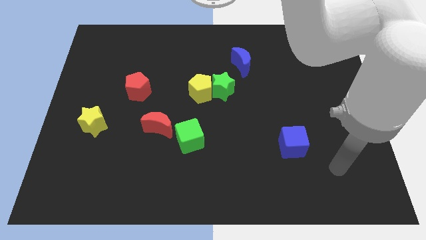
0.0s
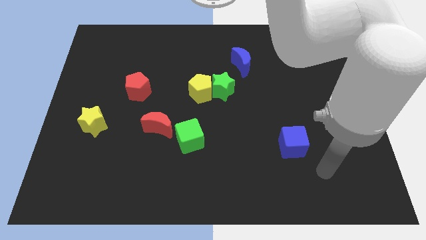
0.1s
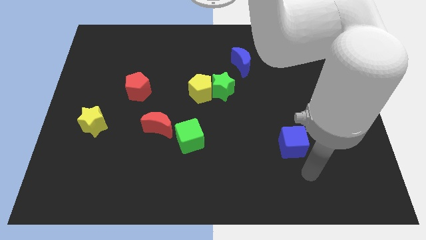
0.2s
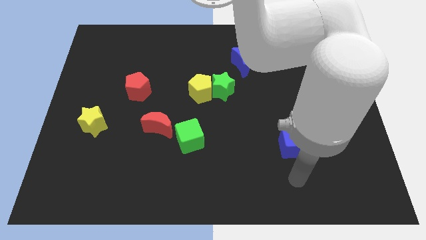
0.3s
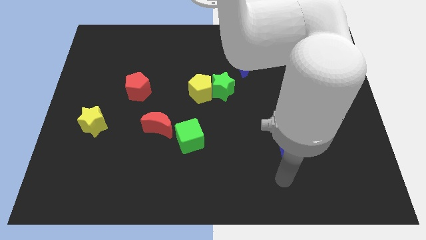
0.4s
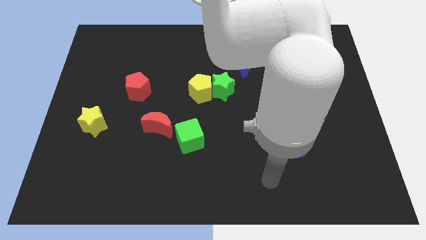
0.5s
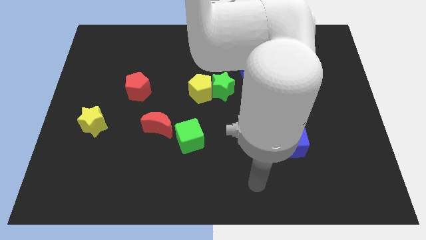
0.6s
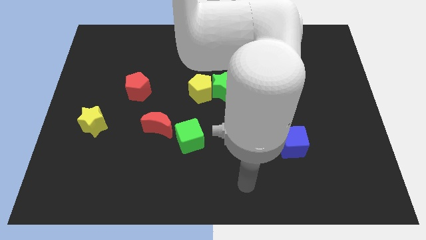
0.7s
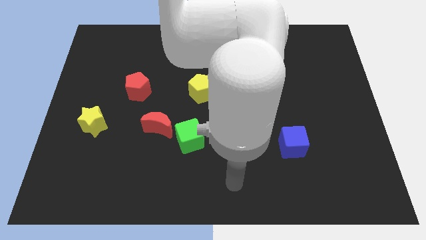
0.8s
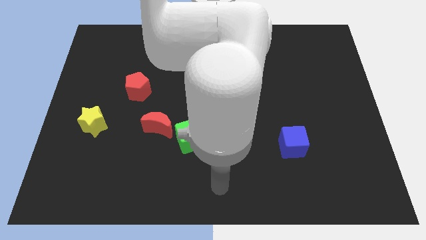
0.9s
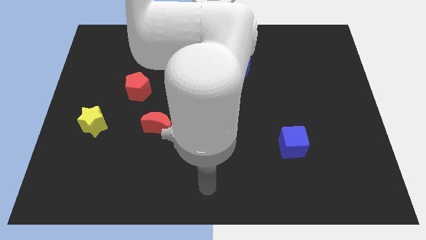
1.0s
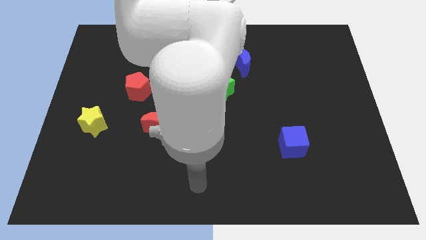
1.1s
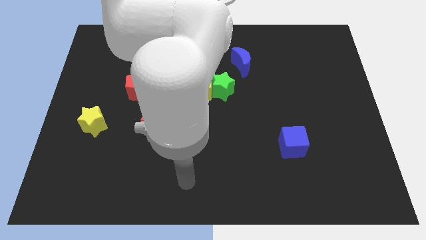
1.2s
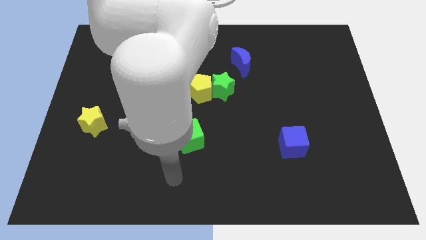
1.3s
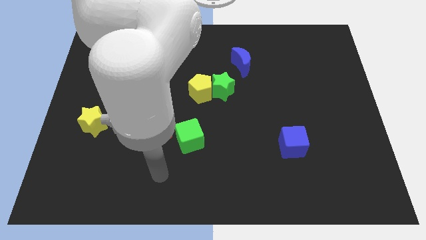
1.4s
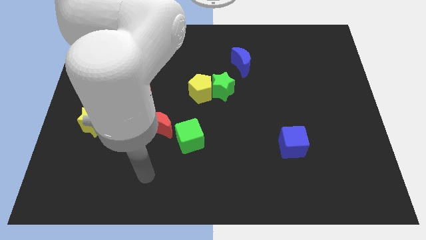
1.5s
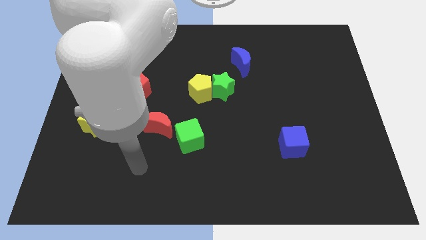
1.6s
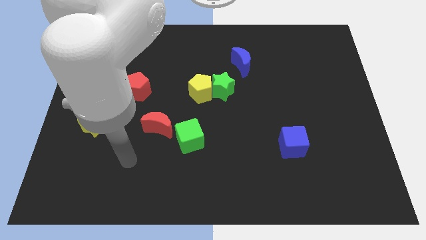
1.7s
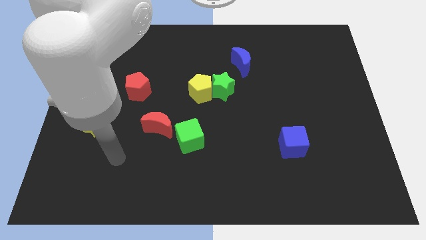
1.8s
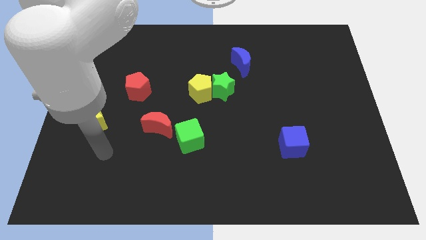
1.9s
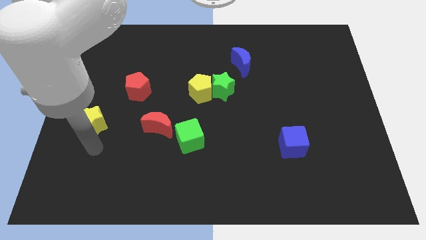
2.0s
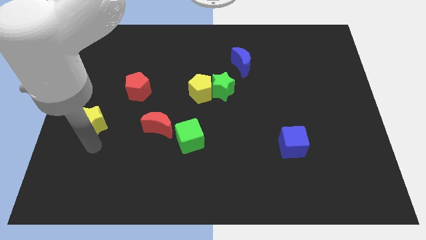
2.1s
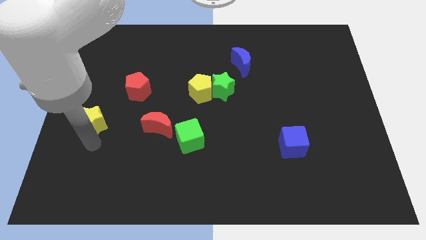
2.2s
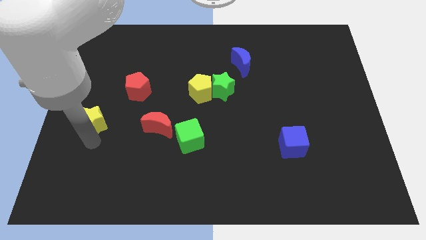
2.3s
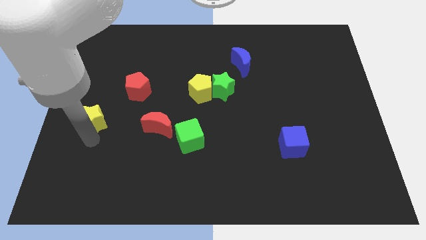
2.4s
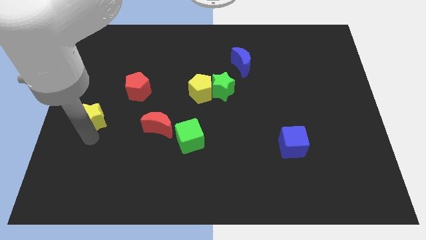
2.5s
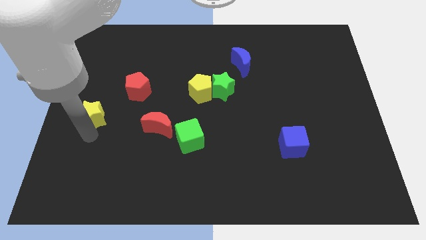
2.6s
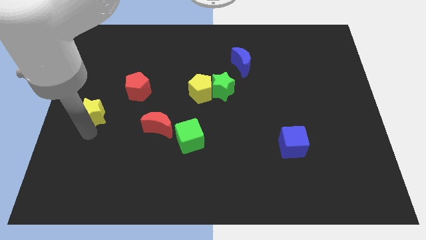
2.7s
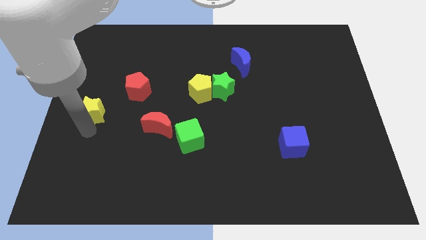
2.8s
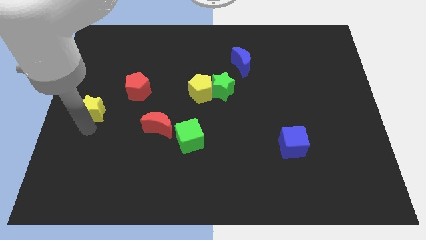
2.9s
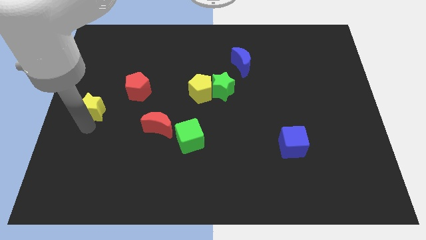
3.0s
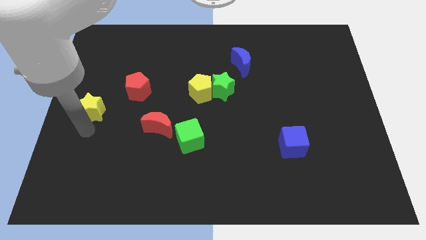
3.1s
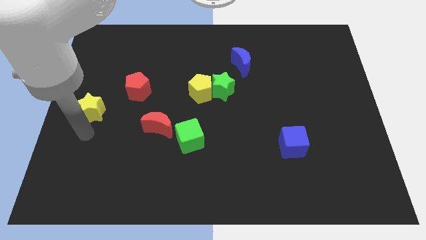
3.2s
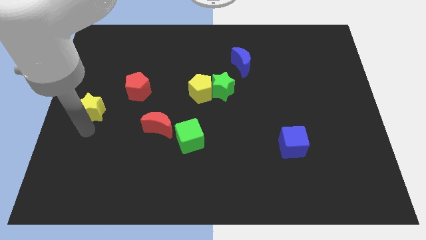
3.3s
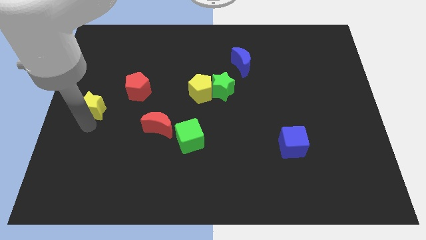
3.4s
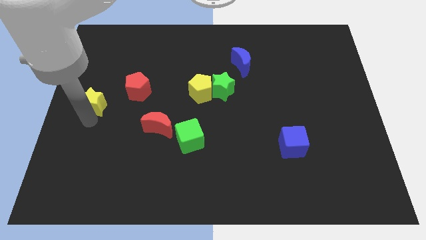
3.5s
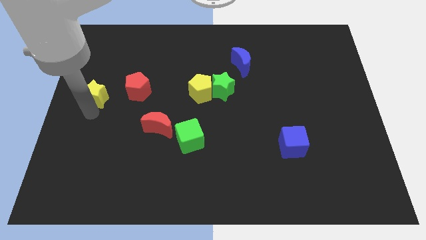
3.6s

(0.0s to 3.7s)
move the yellow star up somewhat

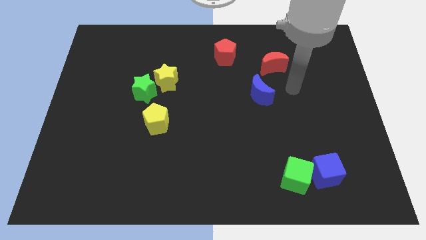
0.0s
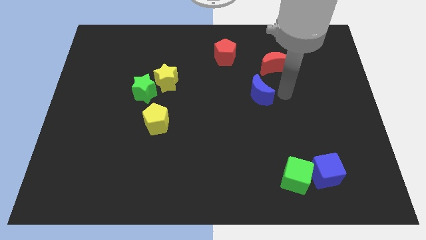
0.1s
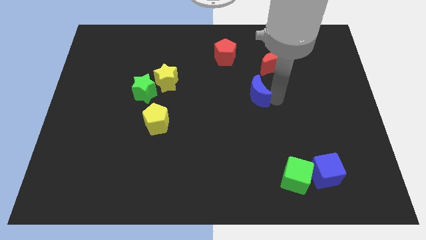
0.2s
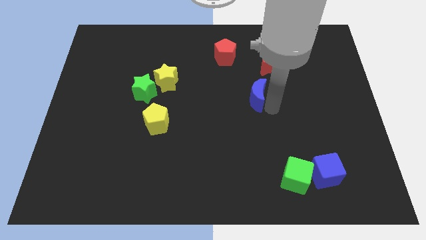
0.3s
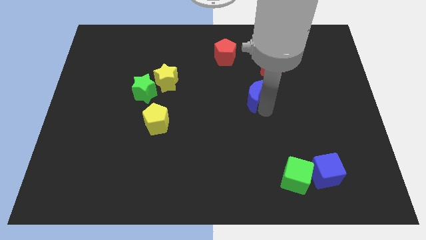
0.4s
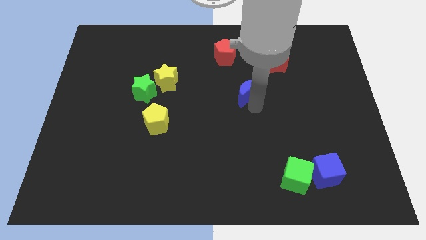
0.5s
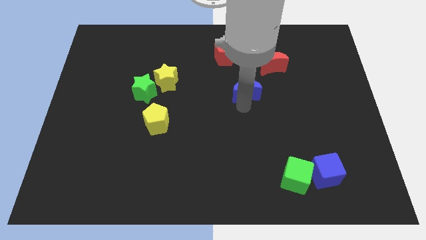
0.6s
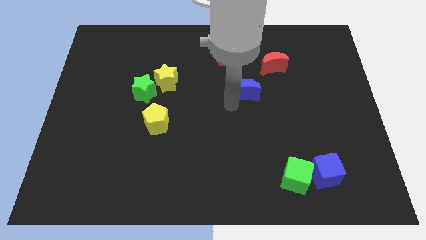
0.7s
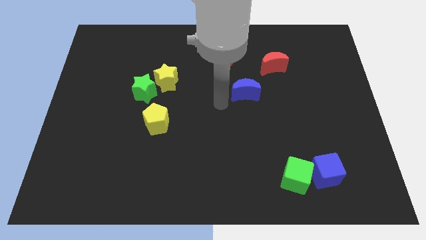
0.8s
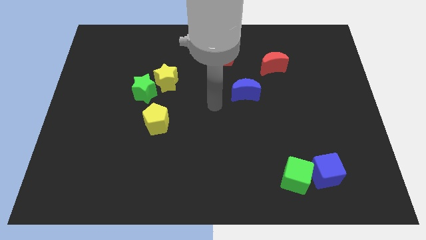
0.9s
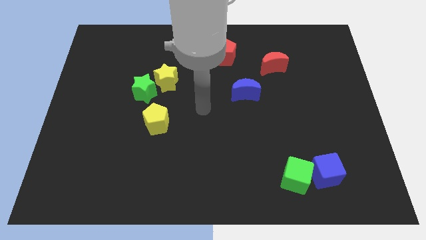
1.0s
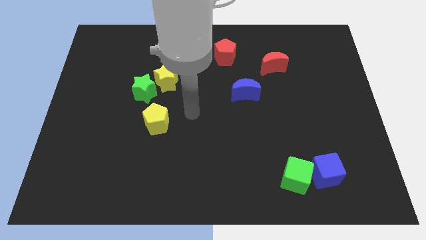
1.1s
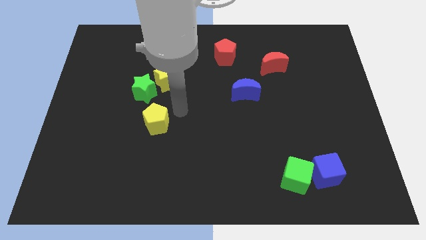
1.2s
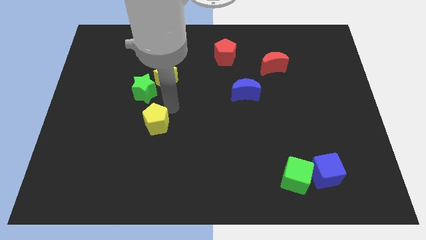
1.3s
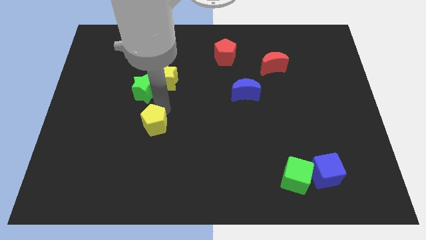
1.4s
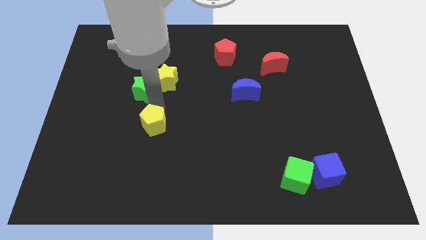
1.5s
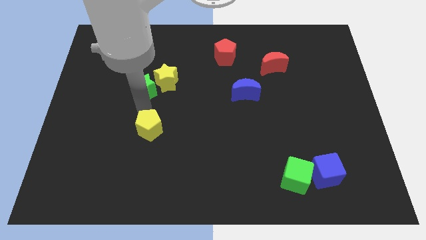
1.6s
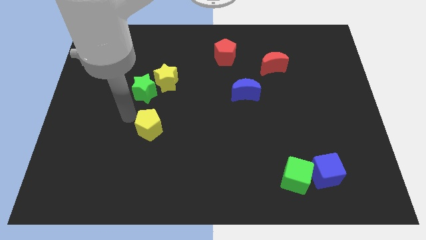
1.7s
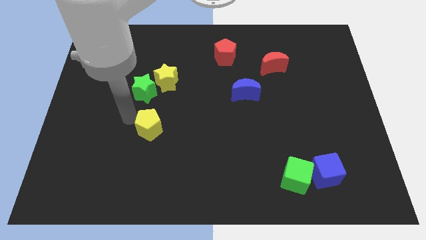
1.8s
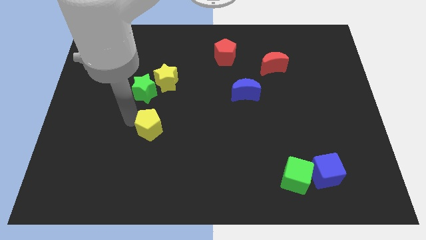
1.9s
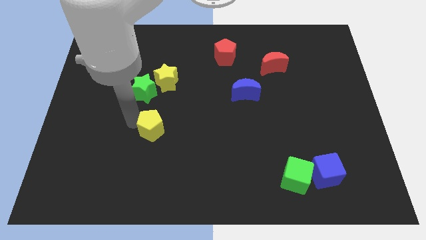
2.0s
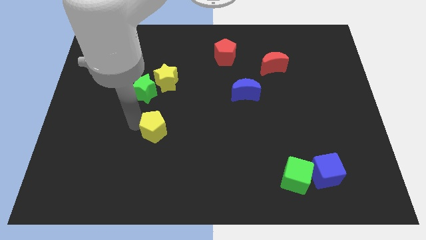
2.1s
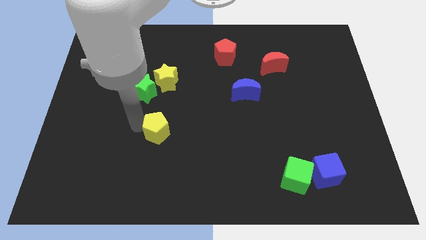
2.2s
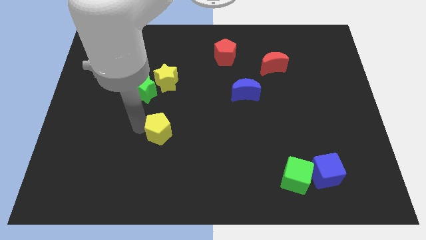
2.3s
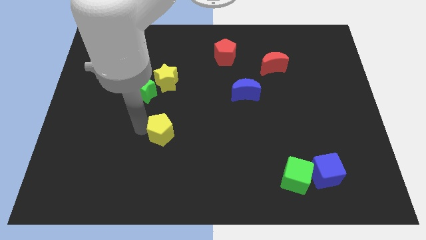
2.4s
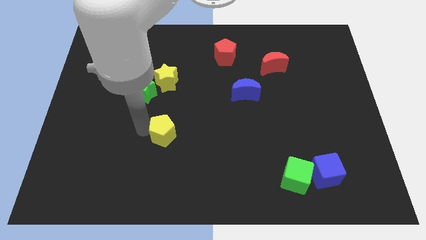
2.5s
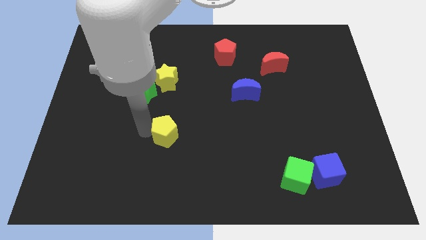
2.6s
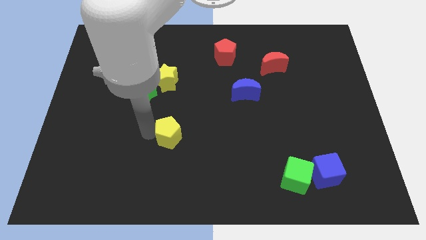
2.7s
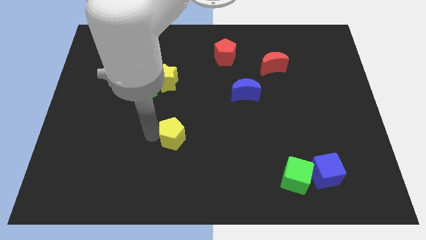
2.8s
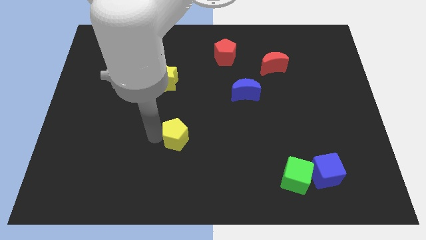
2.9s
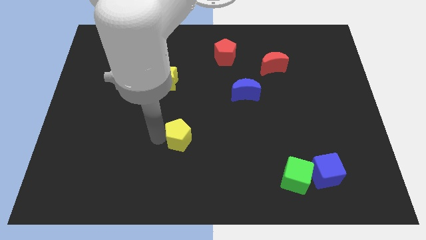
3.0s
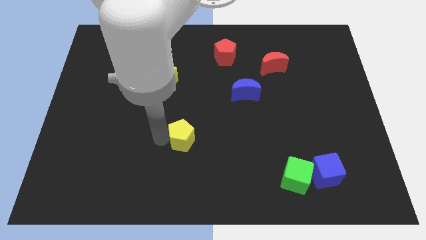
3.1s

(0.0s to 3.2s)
move the yellow pentagon a little bit downwards and then right

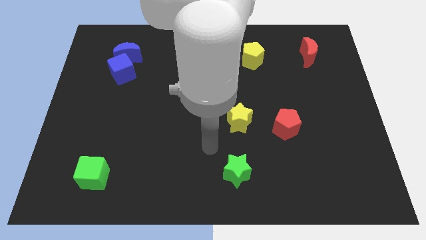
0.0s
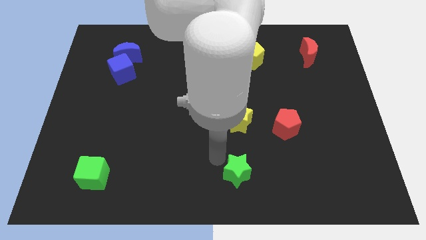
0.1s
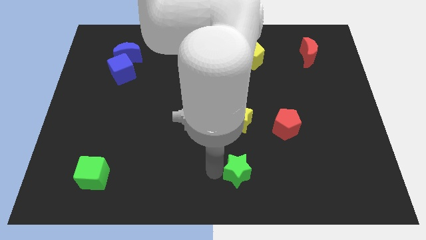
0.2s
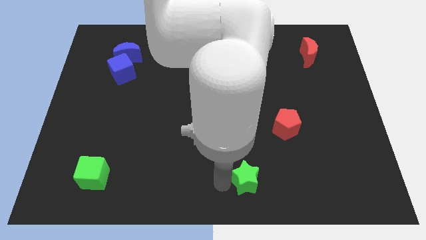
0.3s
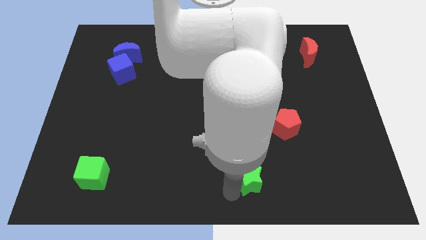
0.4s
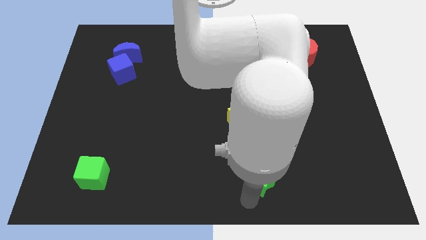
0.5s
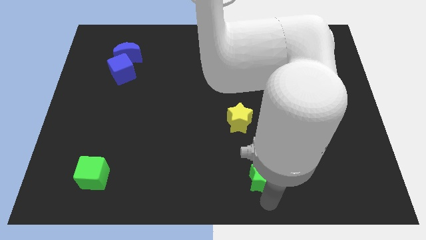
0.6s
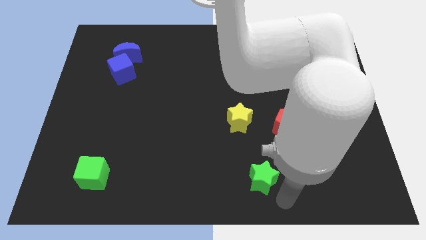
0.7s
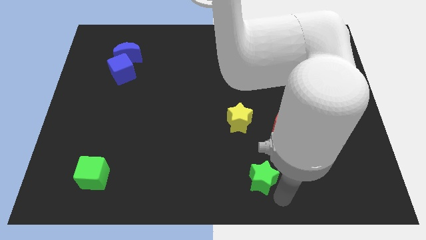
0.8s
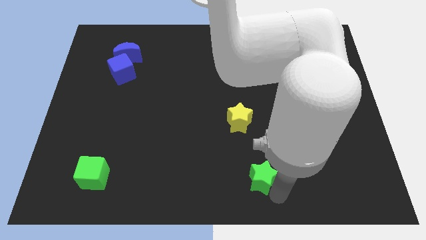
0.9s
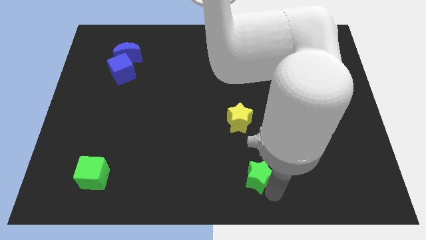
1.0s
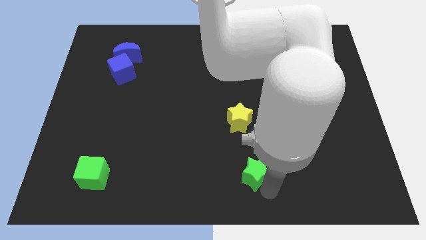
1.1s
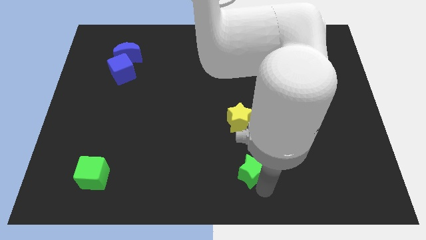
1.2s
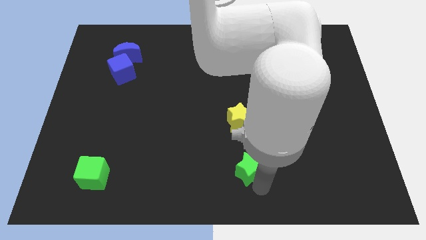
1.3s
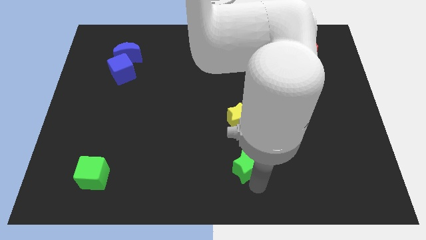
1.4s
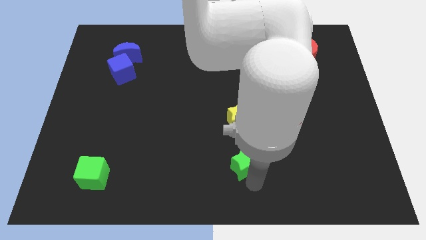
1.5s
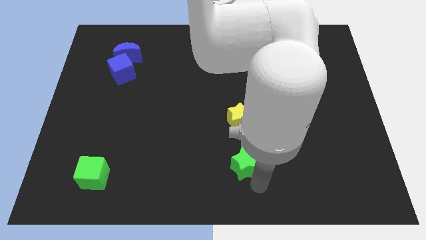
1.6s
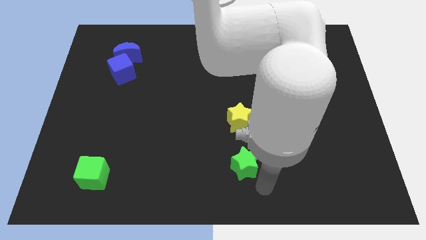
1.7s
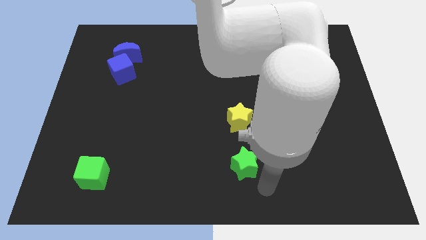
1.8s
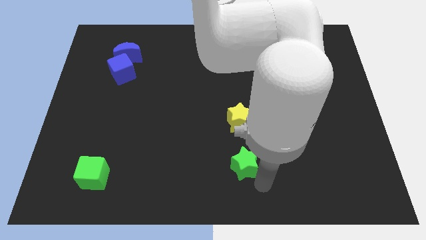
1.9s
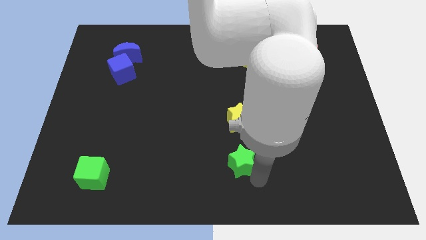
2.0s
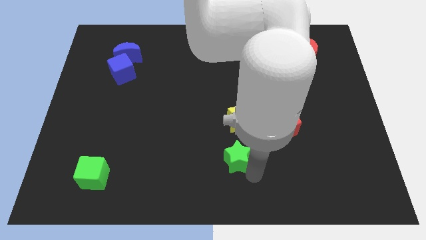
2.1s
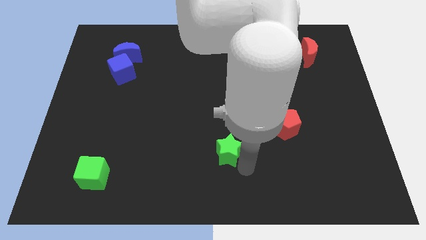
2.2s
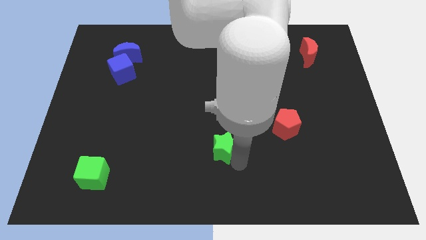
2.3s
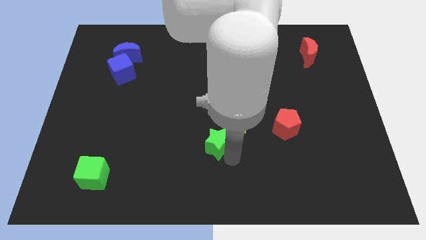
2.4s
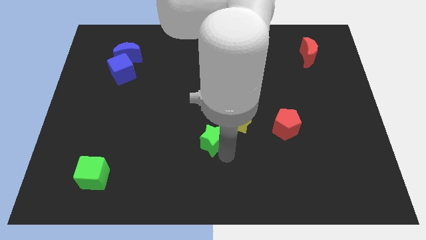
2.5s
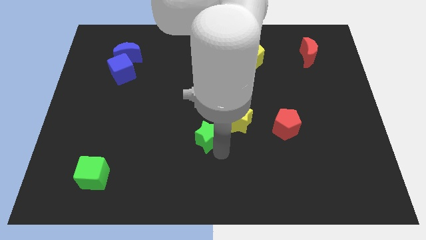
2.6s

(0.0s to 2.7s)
push the green star somewhat upwards
